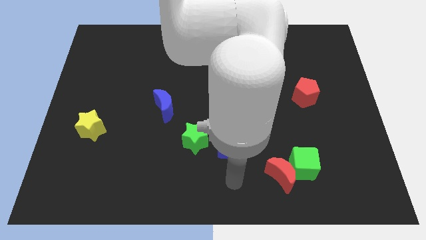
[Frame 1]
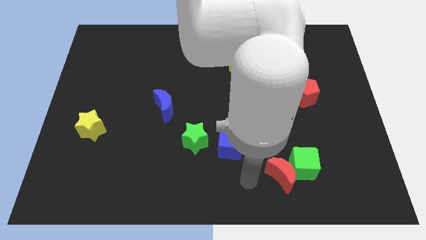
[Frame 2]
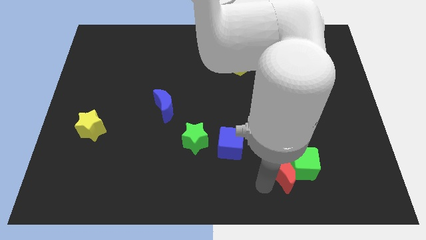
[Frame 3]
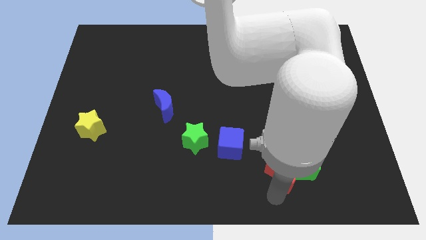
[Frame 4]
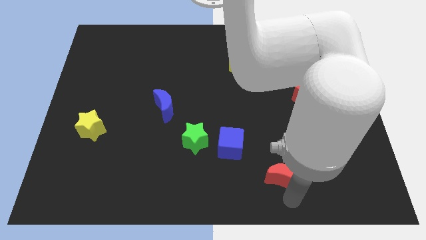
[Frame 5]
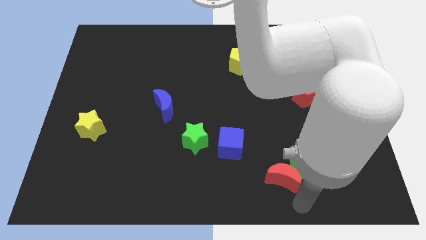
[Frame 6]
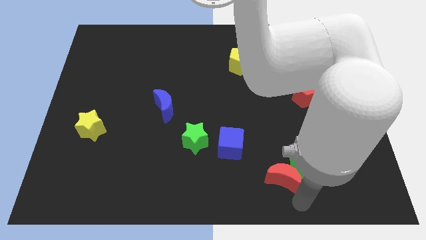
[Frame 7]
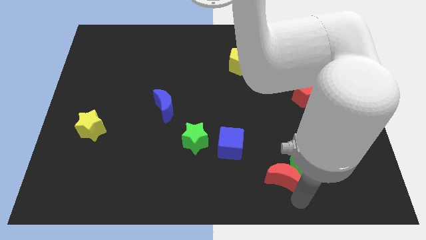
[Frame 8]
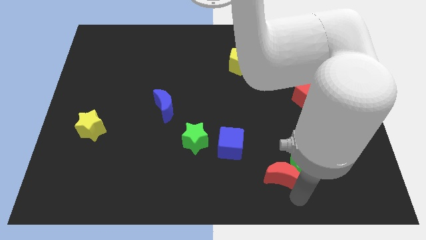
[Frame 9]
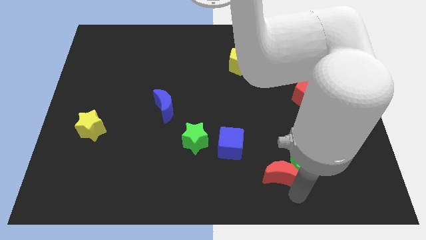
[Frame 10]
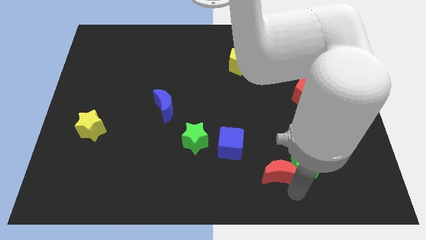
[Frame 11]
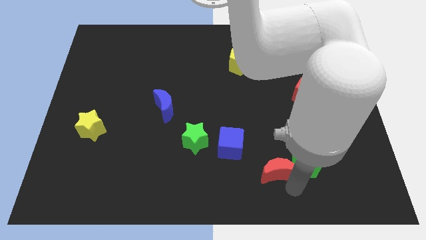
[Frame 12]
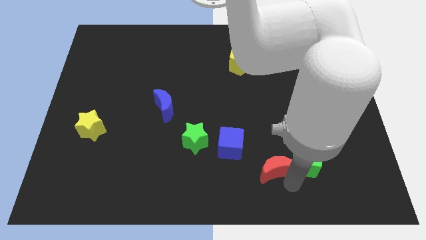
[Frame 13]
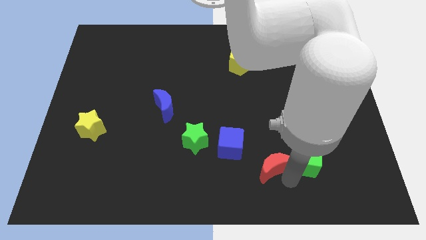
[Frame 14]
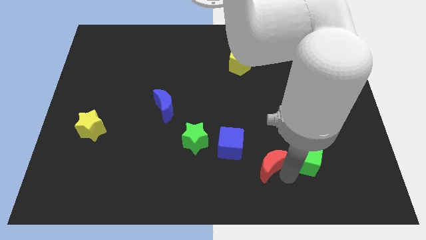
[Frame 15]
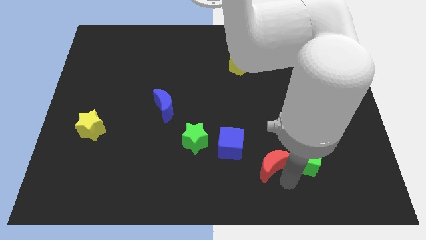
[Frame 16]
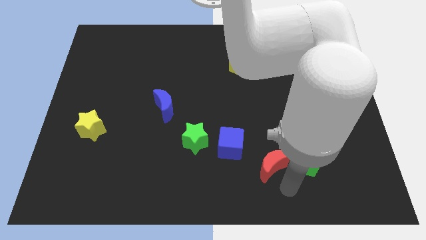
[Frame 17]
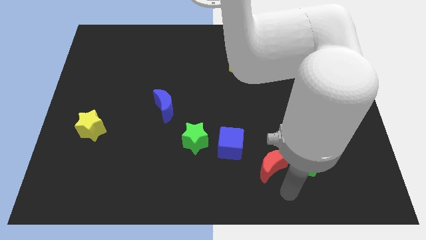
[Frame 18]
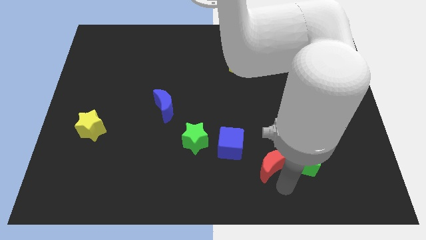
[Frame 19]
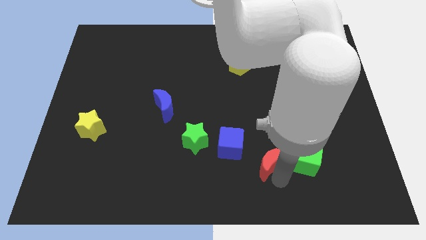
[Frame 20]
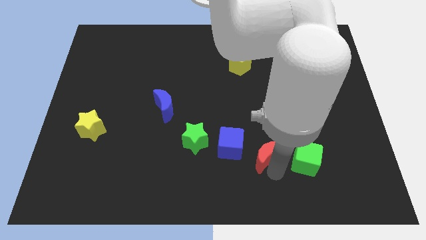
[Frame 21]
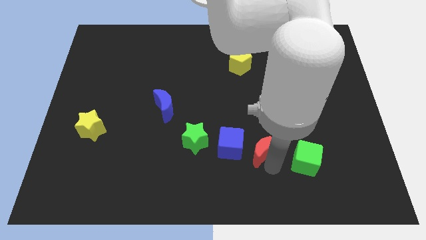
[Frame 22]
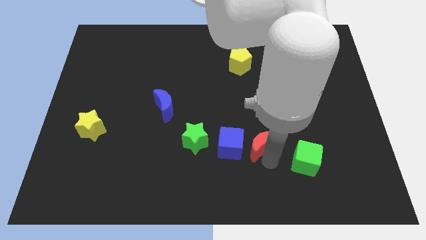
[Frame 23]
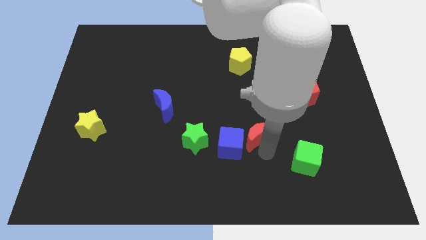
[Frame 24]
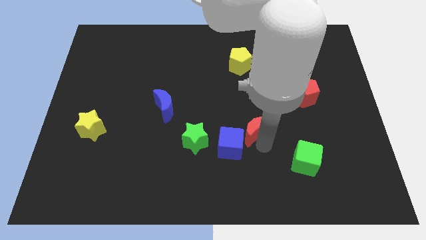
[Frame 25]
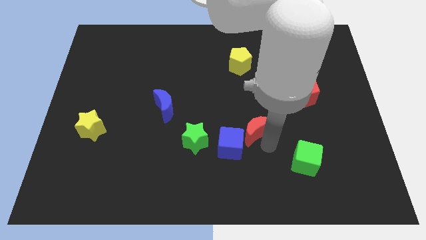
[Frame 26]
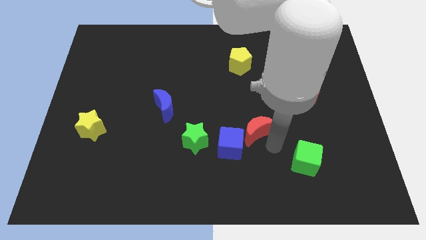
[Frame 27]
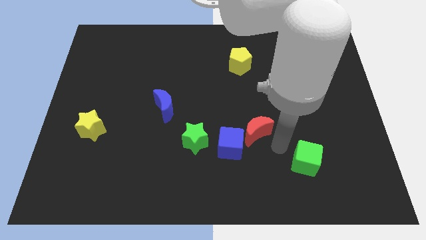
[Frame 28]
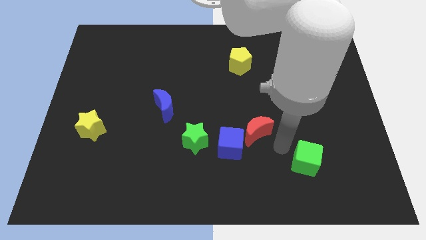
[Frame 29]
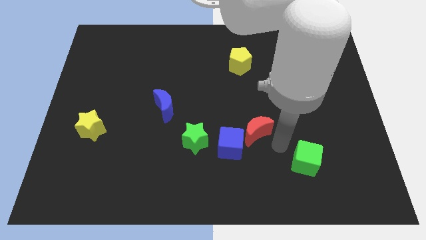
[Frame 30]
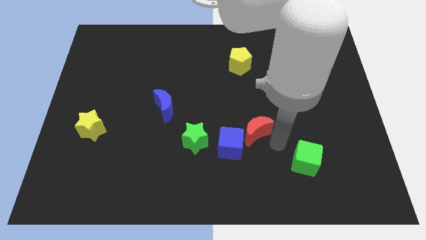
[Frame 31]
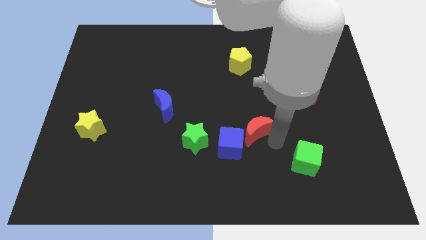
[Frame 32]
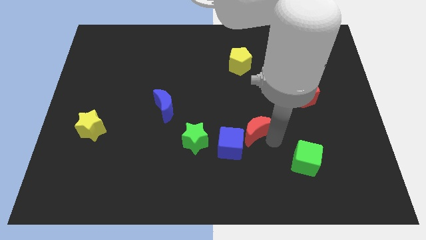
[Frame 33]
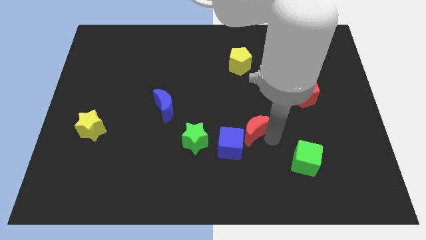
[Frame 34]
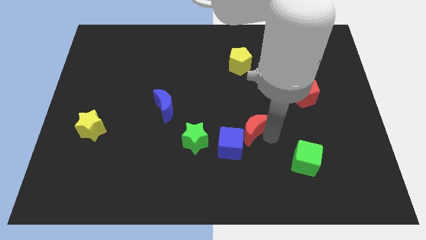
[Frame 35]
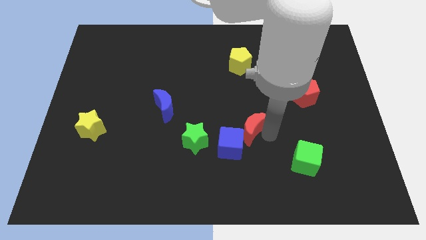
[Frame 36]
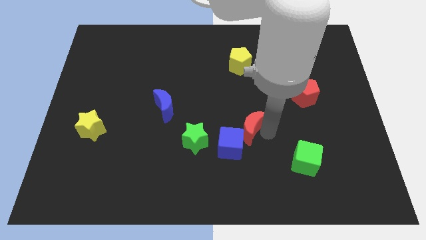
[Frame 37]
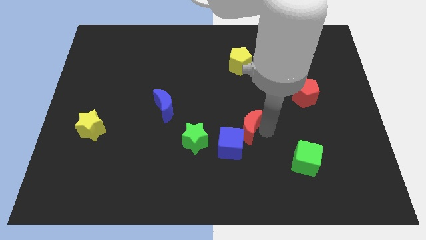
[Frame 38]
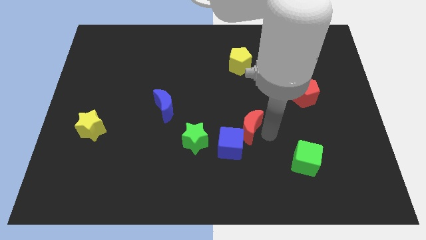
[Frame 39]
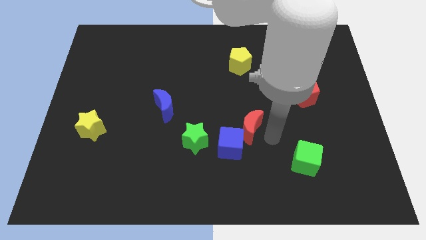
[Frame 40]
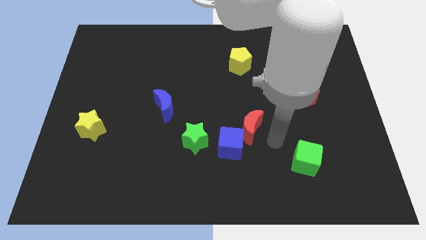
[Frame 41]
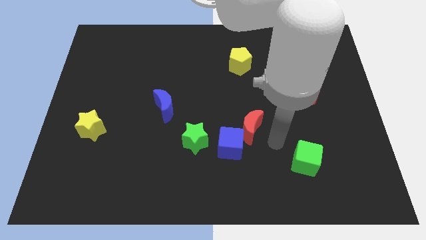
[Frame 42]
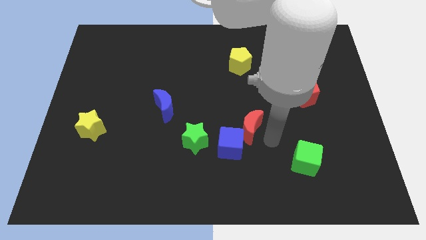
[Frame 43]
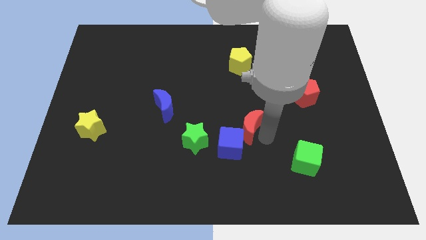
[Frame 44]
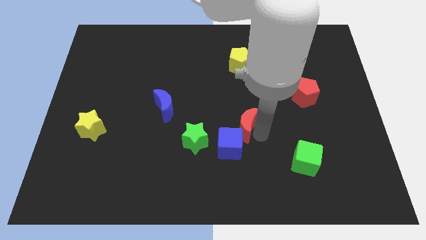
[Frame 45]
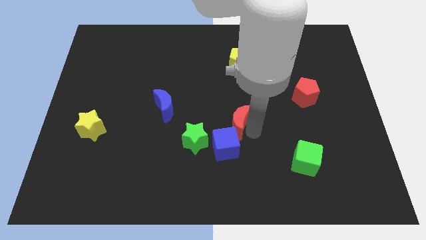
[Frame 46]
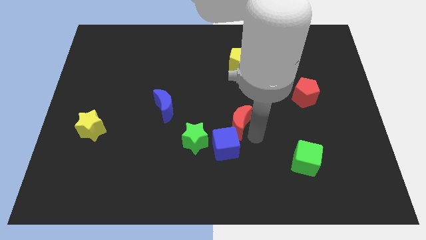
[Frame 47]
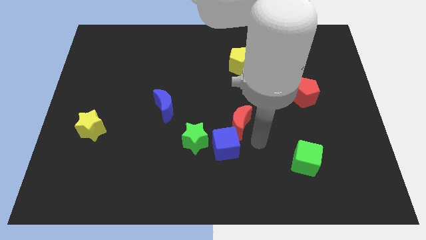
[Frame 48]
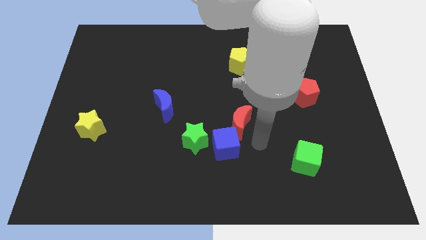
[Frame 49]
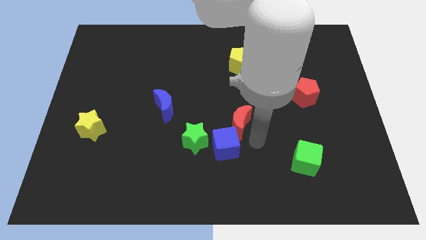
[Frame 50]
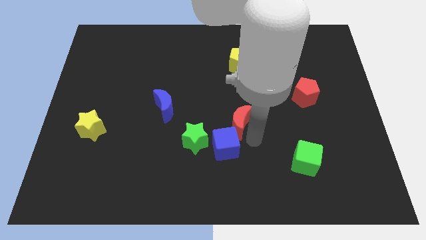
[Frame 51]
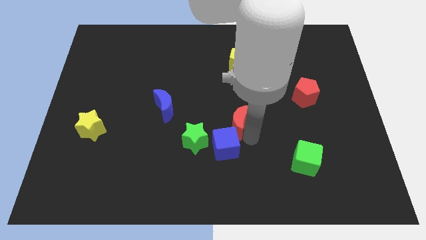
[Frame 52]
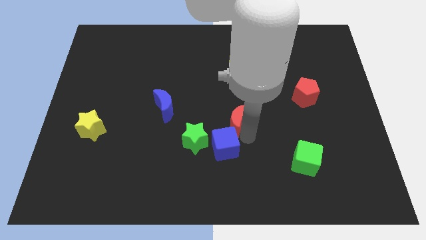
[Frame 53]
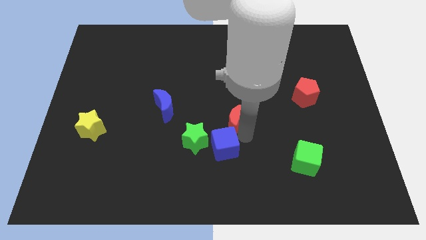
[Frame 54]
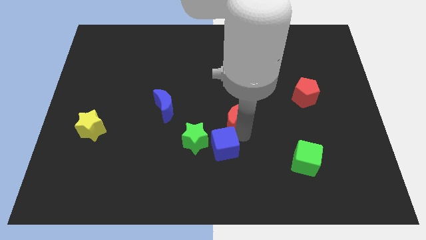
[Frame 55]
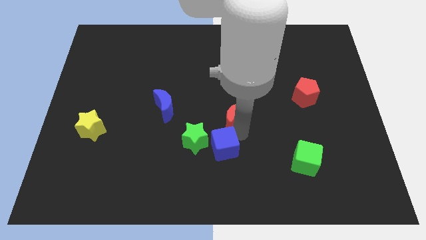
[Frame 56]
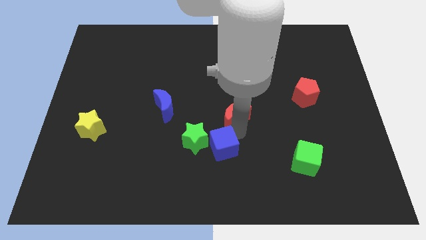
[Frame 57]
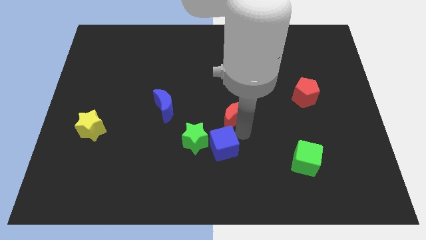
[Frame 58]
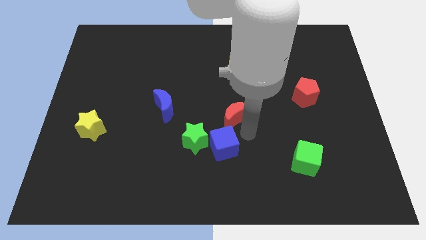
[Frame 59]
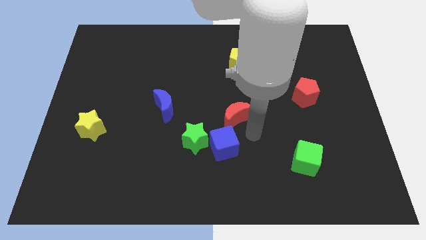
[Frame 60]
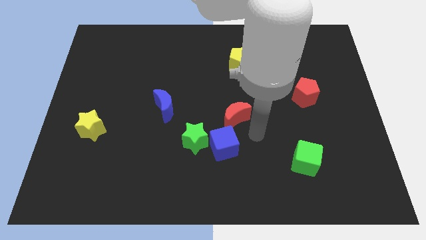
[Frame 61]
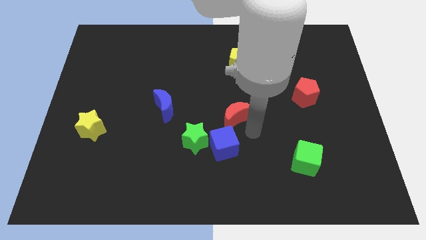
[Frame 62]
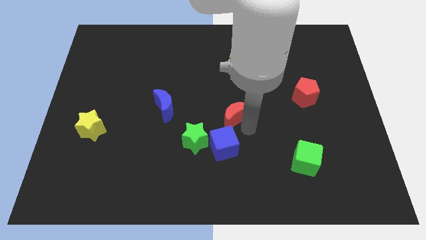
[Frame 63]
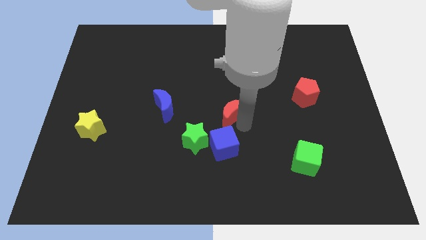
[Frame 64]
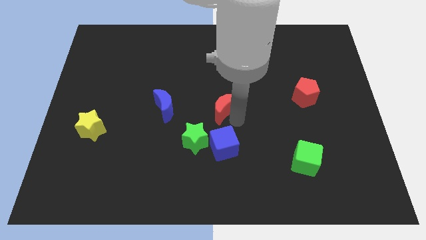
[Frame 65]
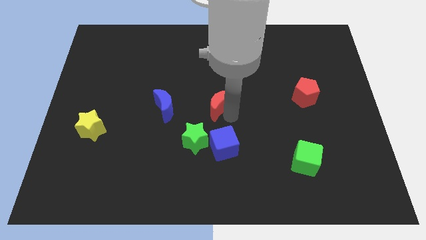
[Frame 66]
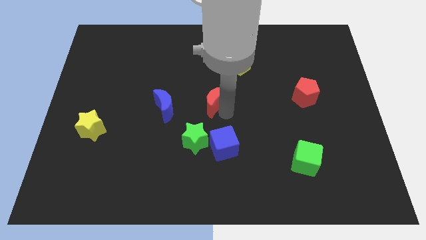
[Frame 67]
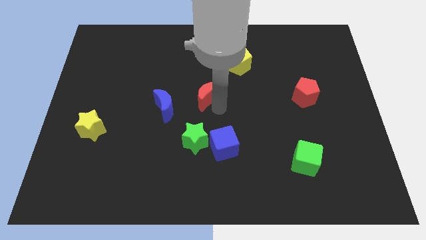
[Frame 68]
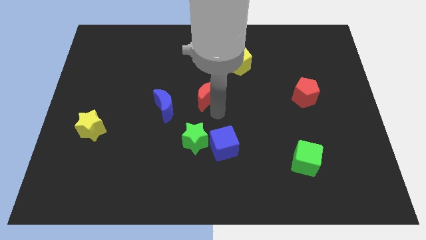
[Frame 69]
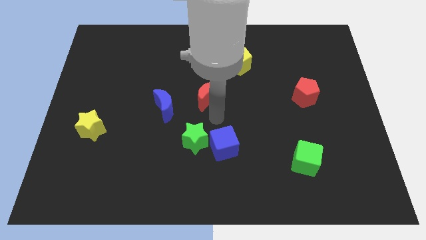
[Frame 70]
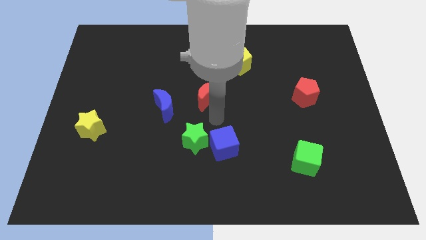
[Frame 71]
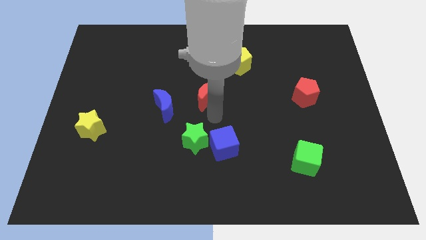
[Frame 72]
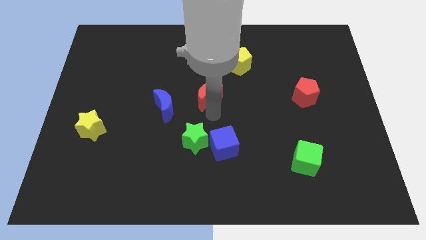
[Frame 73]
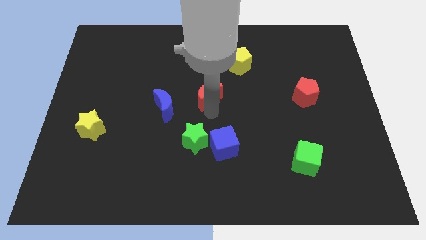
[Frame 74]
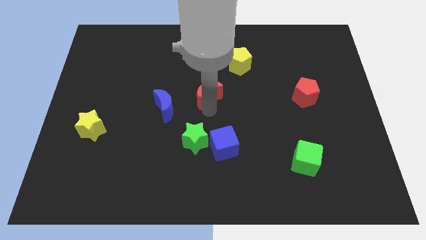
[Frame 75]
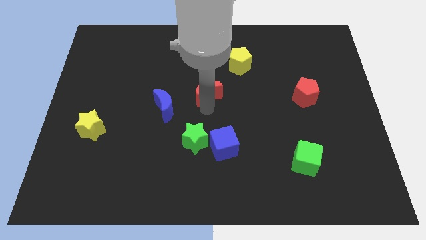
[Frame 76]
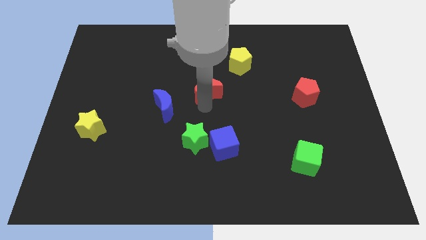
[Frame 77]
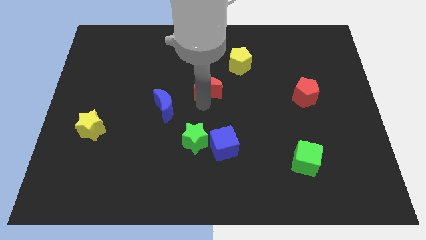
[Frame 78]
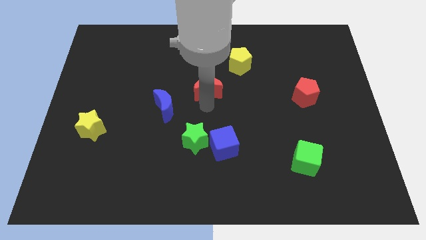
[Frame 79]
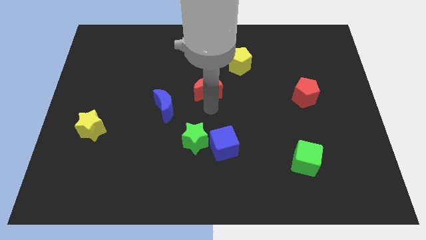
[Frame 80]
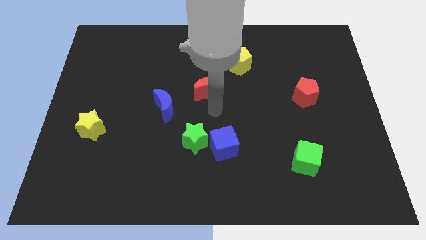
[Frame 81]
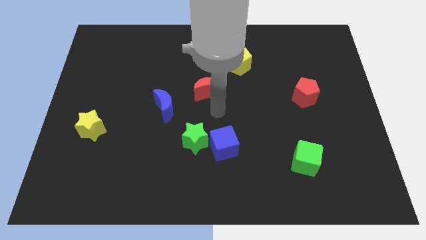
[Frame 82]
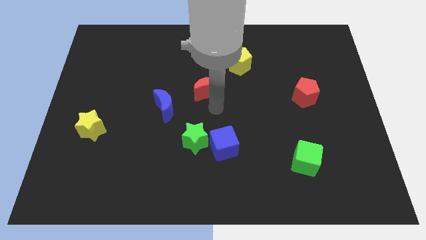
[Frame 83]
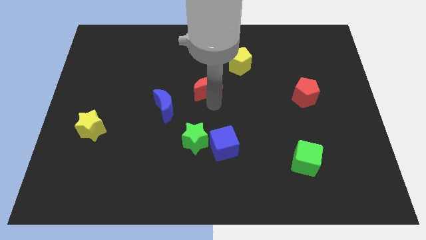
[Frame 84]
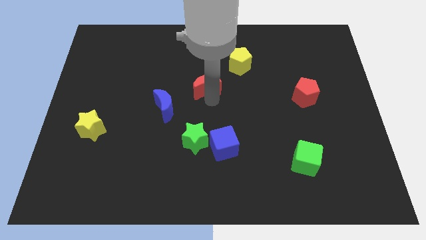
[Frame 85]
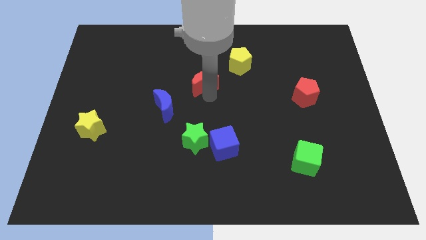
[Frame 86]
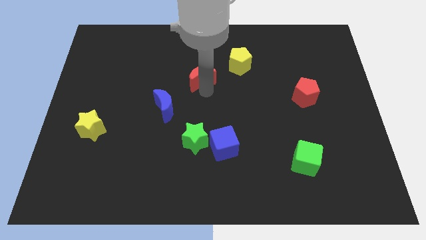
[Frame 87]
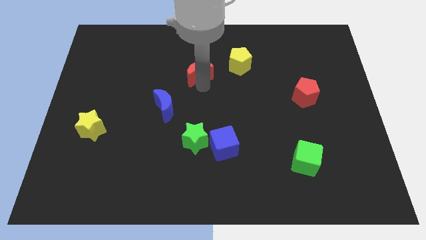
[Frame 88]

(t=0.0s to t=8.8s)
move the red moon to the left of the yellow pentagon
